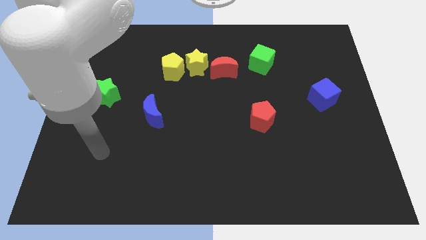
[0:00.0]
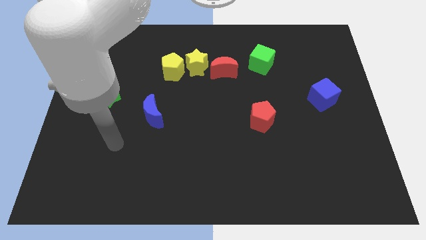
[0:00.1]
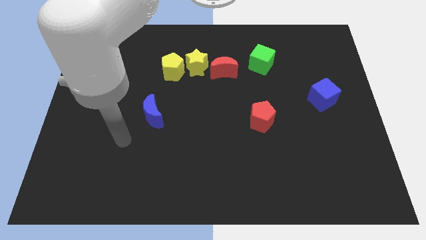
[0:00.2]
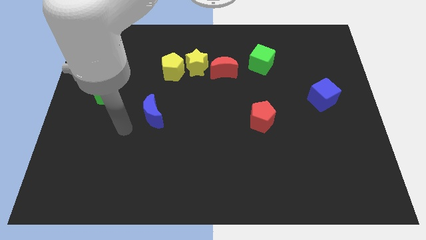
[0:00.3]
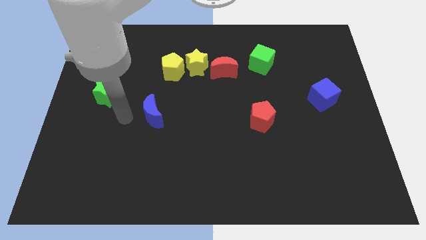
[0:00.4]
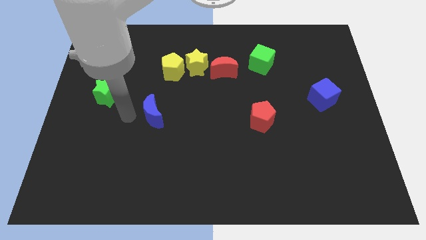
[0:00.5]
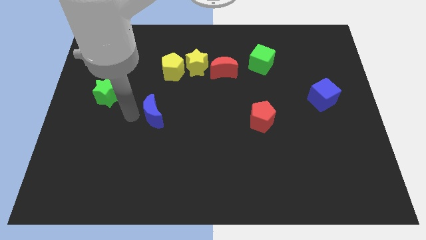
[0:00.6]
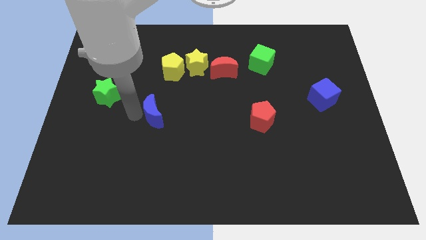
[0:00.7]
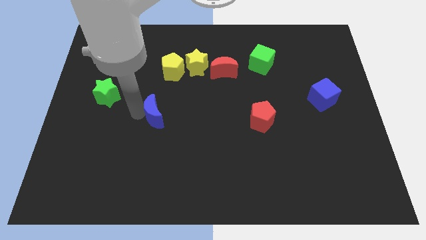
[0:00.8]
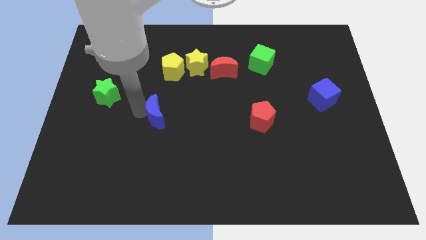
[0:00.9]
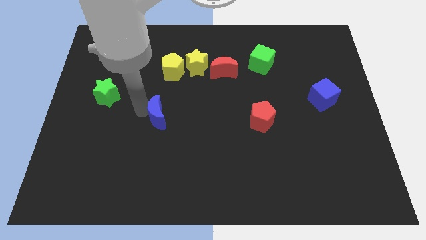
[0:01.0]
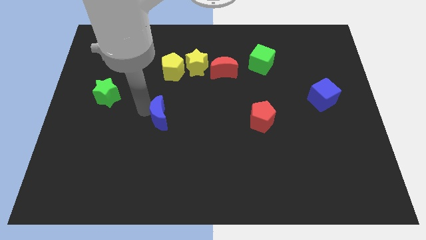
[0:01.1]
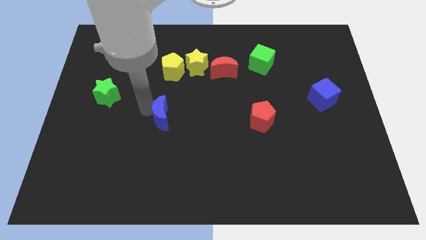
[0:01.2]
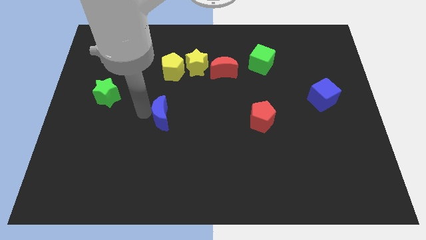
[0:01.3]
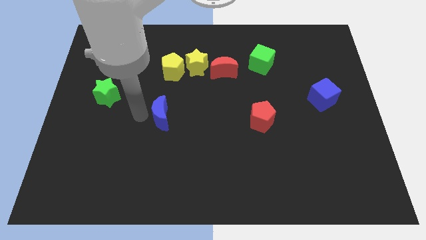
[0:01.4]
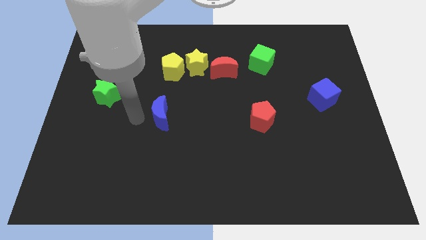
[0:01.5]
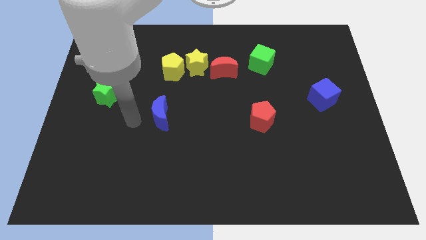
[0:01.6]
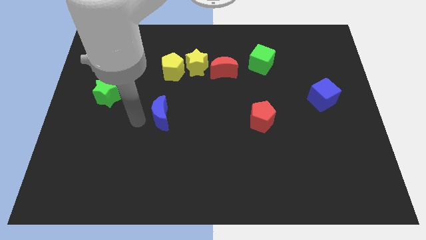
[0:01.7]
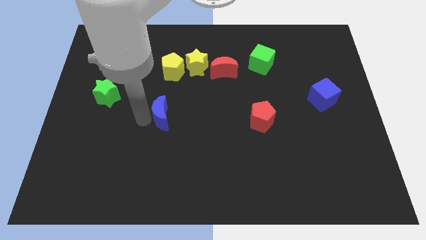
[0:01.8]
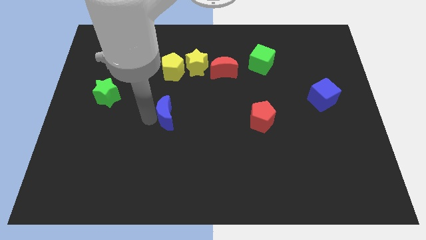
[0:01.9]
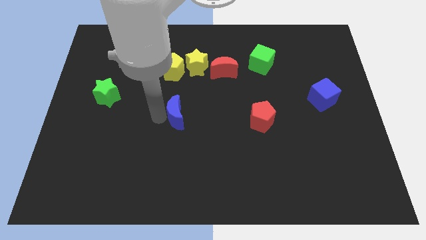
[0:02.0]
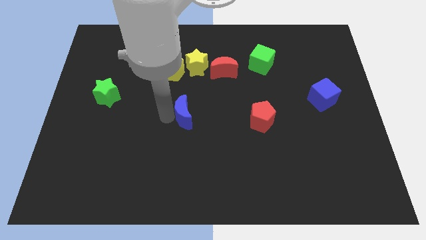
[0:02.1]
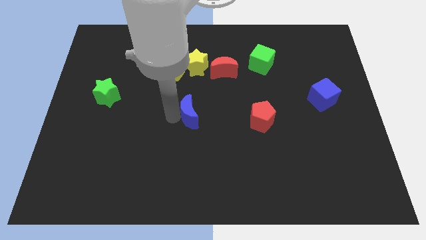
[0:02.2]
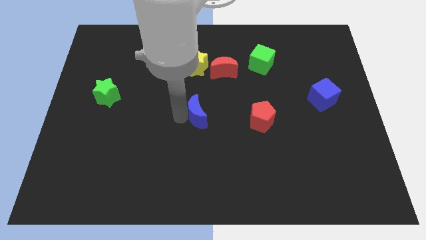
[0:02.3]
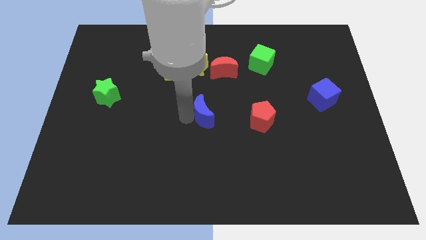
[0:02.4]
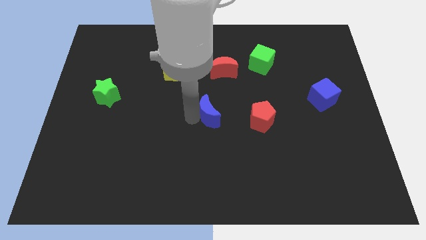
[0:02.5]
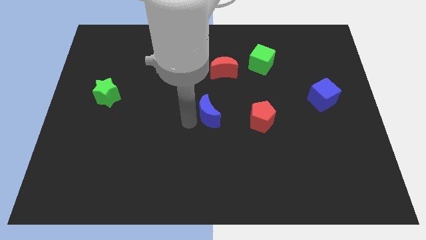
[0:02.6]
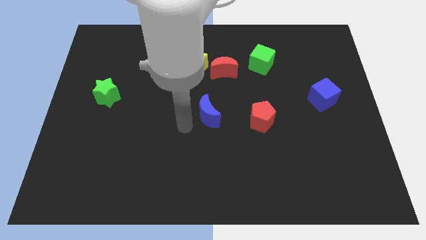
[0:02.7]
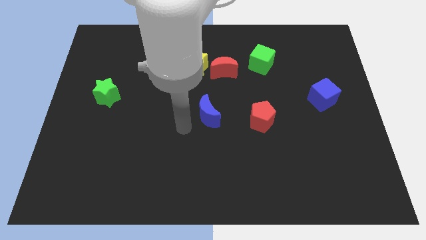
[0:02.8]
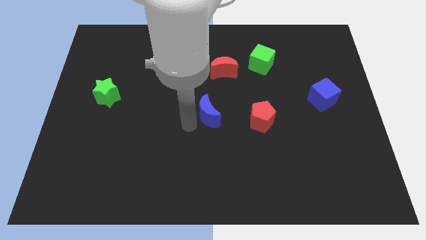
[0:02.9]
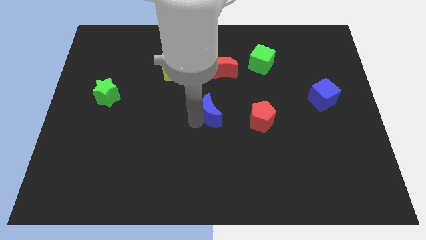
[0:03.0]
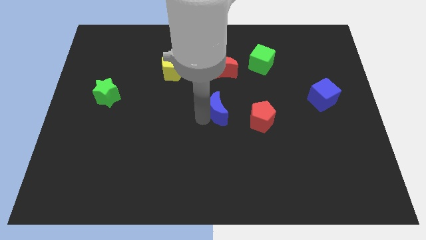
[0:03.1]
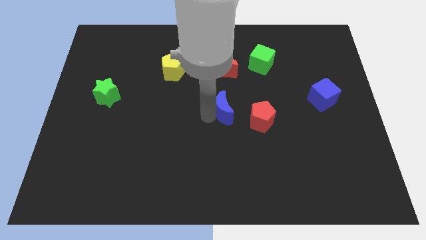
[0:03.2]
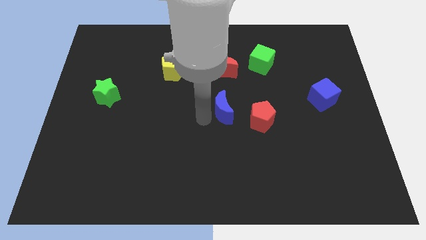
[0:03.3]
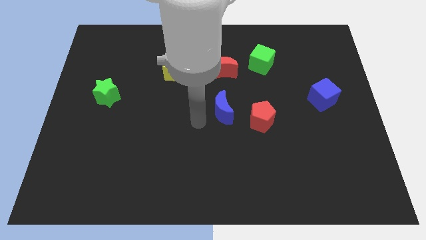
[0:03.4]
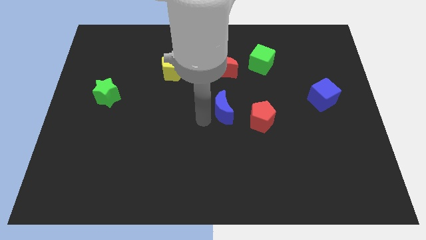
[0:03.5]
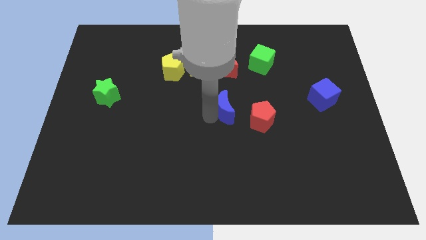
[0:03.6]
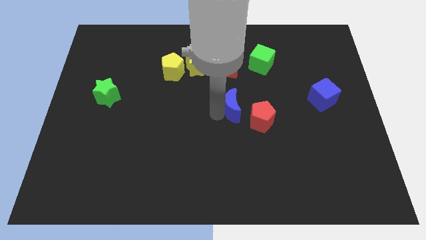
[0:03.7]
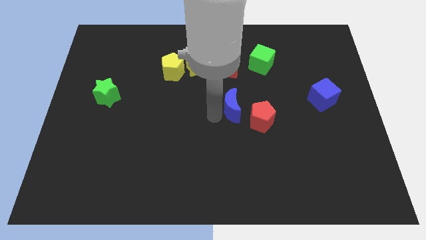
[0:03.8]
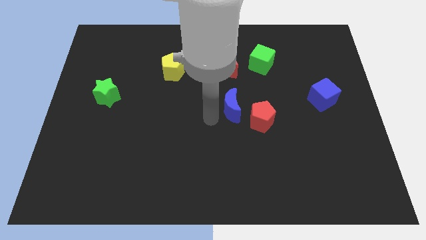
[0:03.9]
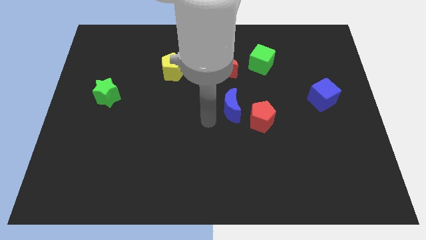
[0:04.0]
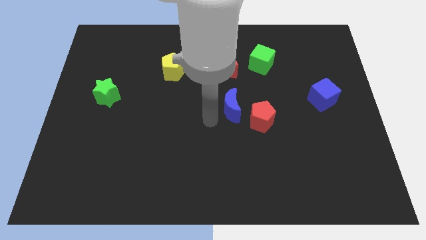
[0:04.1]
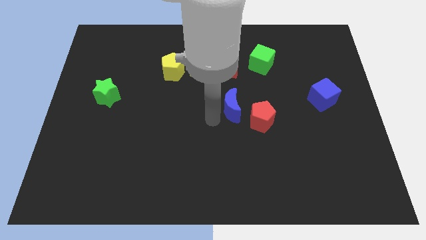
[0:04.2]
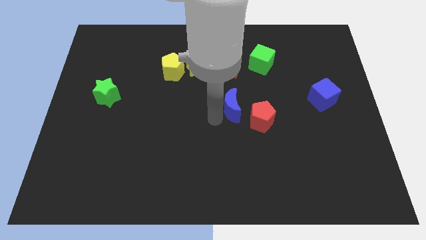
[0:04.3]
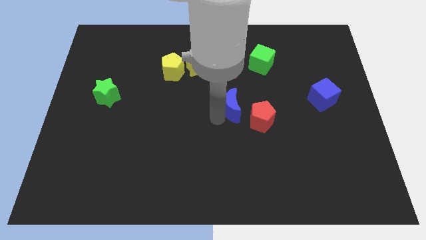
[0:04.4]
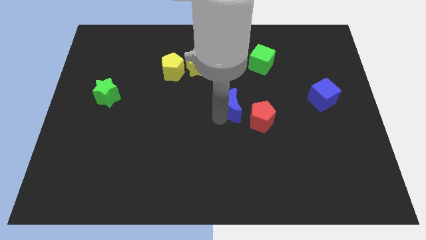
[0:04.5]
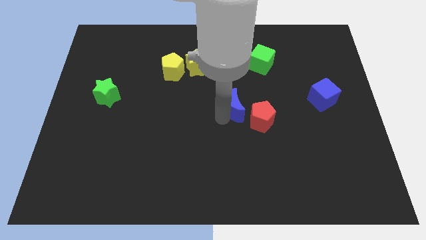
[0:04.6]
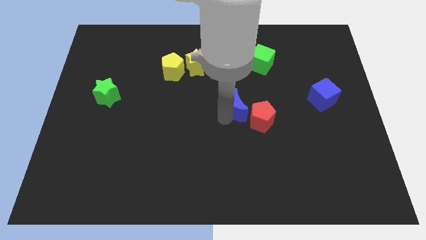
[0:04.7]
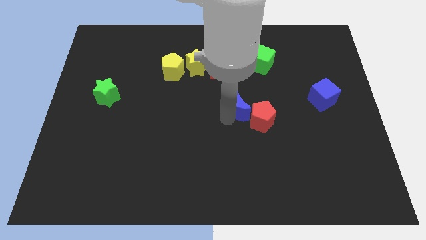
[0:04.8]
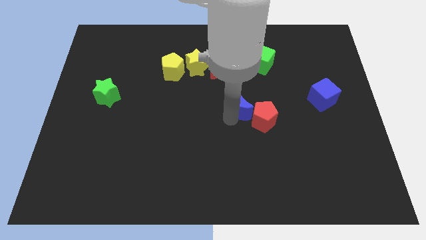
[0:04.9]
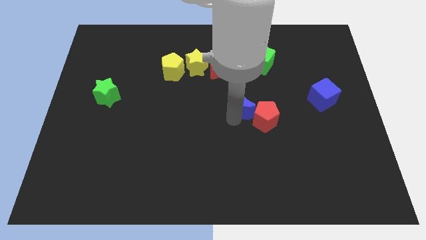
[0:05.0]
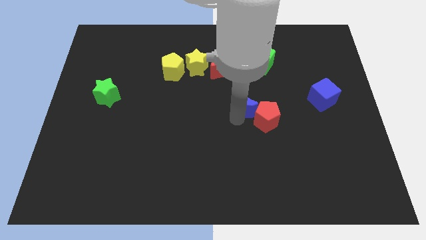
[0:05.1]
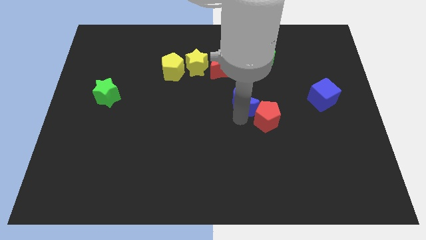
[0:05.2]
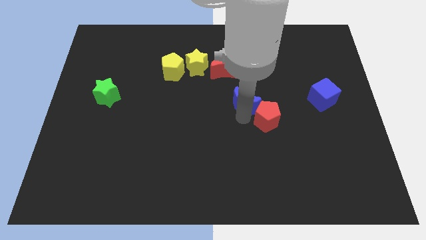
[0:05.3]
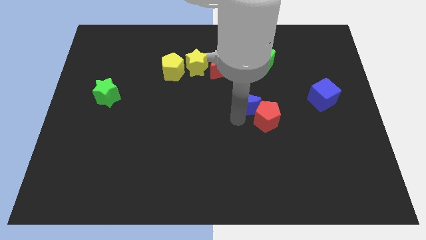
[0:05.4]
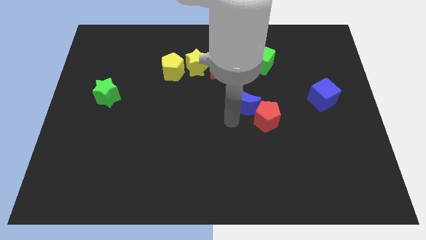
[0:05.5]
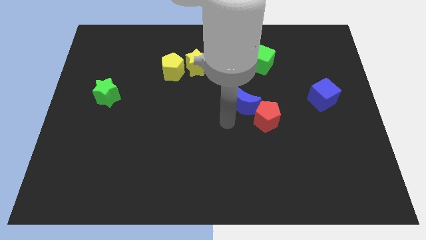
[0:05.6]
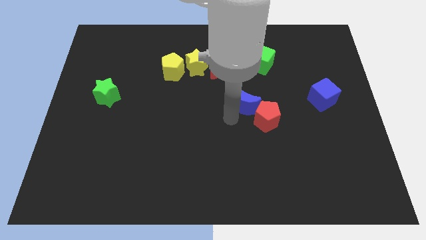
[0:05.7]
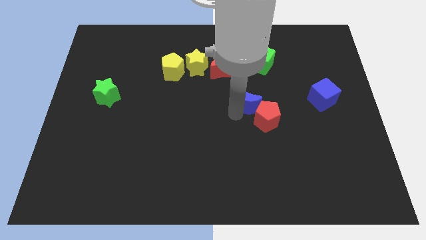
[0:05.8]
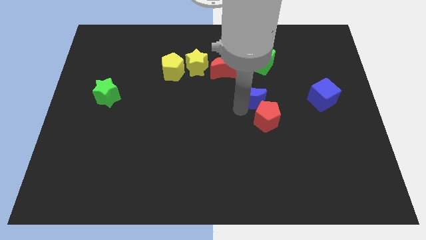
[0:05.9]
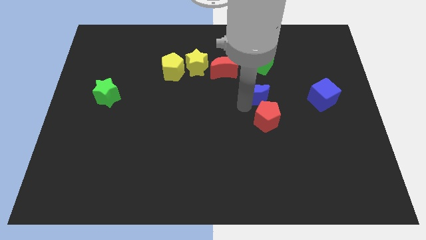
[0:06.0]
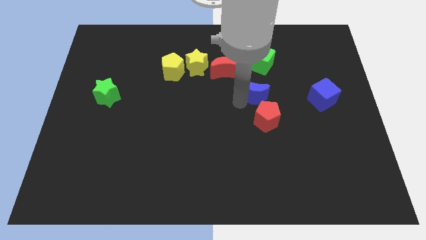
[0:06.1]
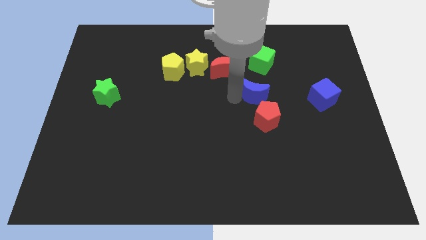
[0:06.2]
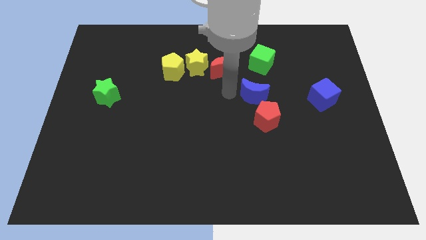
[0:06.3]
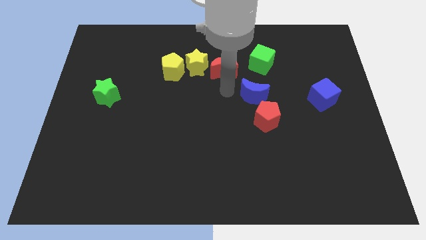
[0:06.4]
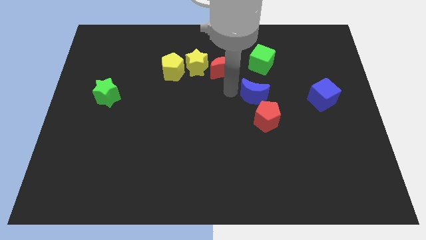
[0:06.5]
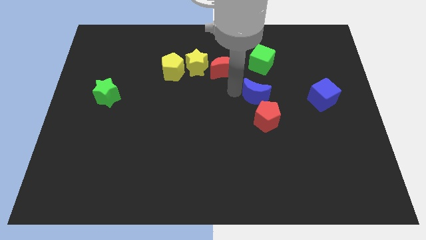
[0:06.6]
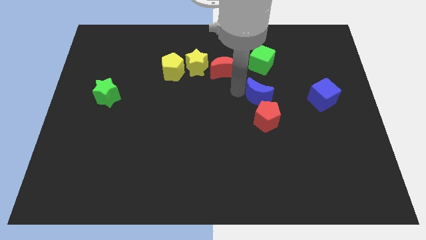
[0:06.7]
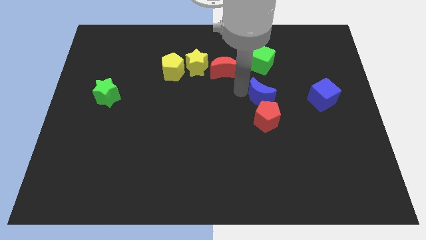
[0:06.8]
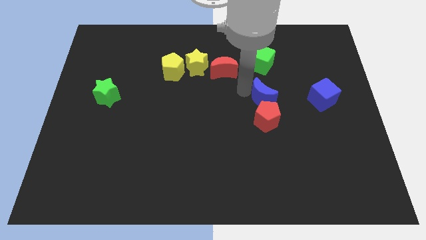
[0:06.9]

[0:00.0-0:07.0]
push the blue moon to the top right of the red pentagon
